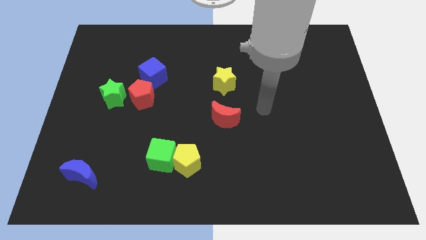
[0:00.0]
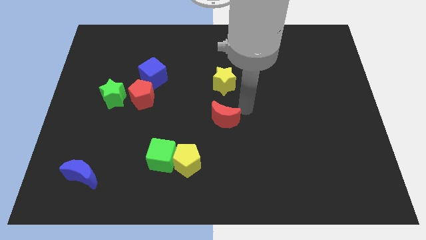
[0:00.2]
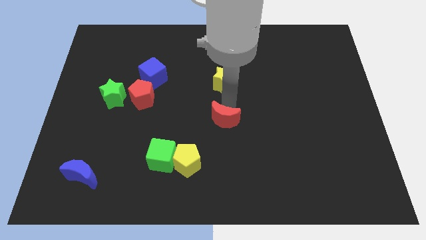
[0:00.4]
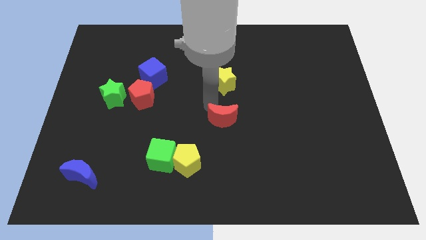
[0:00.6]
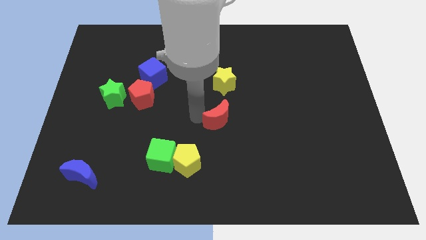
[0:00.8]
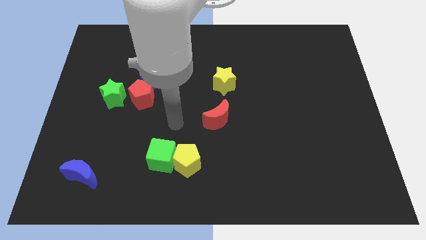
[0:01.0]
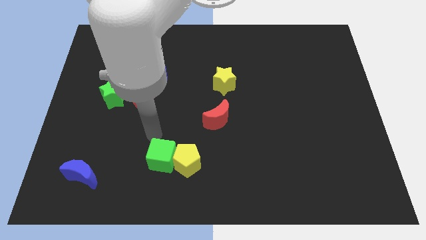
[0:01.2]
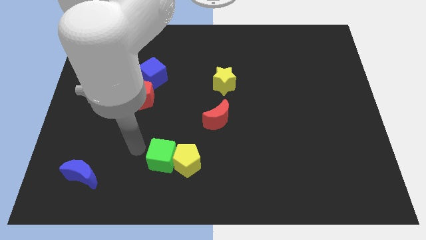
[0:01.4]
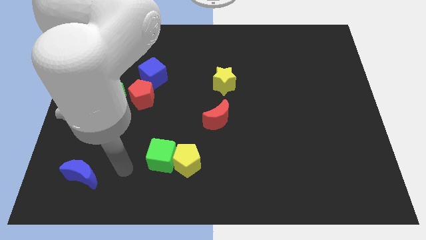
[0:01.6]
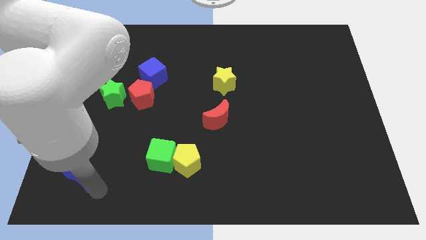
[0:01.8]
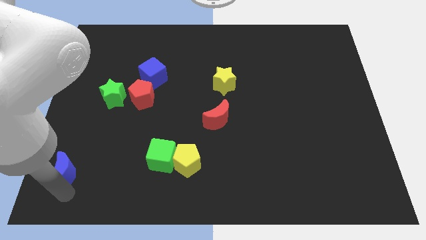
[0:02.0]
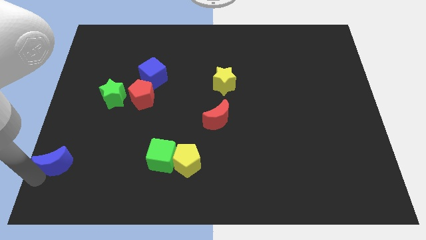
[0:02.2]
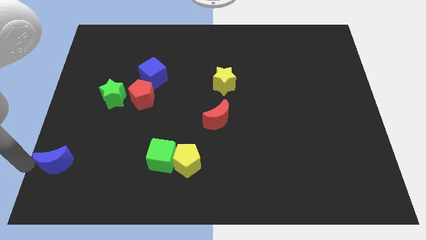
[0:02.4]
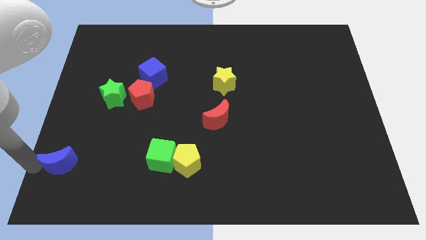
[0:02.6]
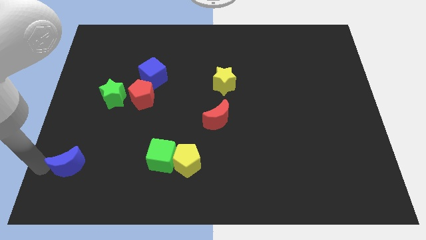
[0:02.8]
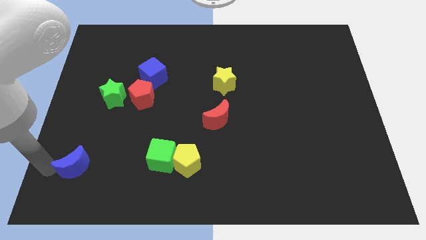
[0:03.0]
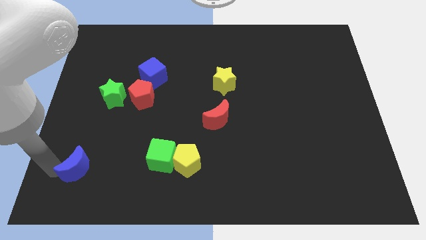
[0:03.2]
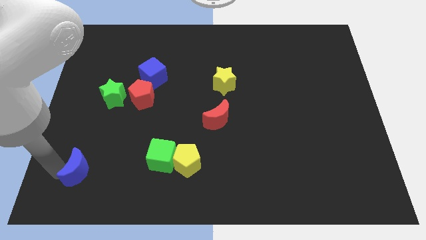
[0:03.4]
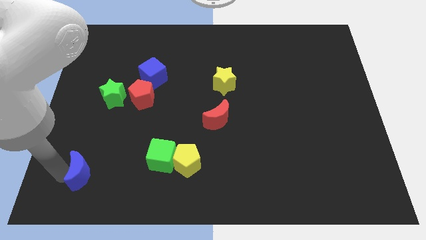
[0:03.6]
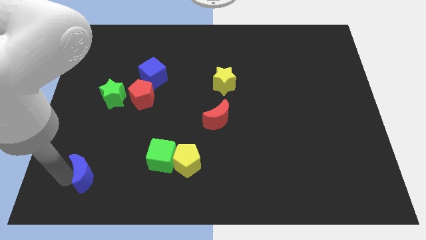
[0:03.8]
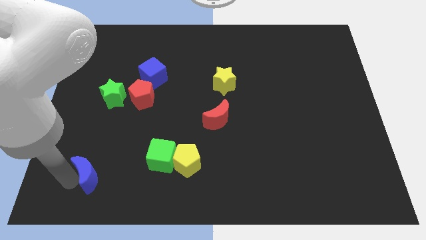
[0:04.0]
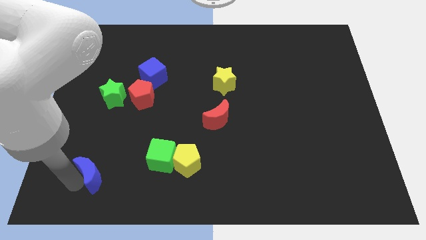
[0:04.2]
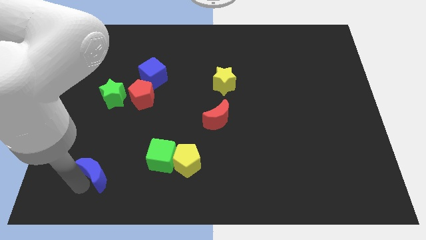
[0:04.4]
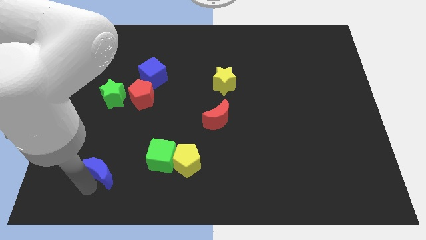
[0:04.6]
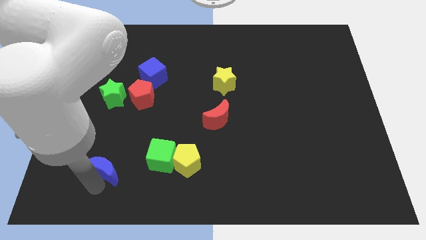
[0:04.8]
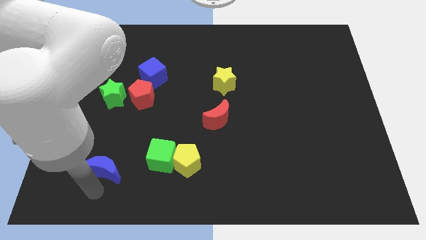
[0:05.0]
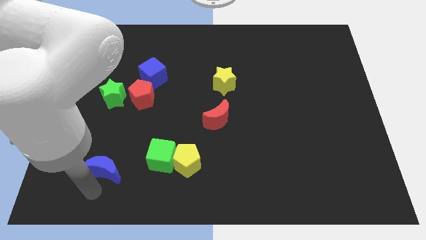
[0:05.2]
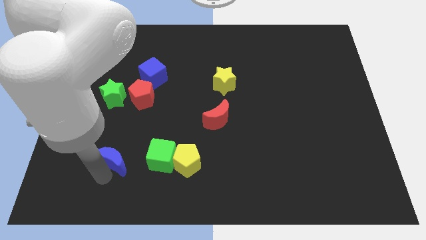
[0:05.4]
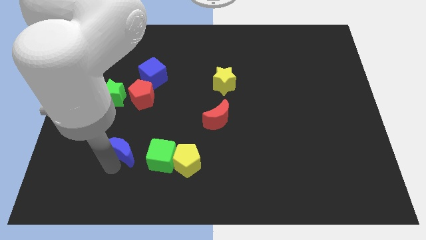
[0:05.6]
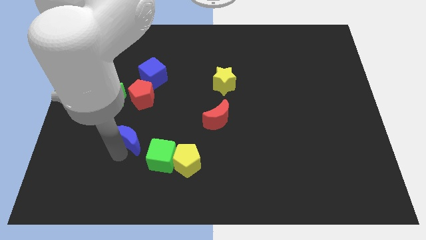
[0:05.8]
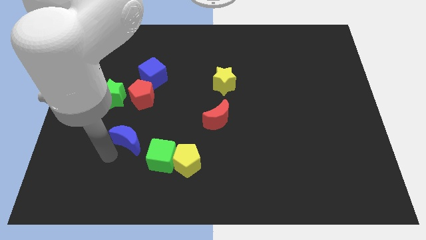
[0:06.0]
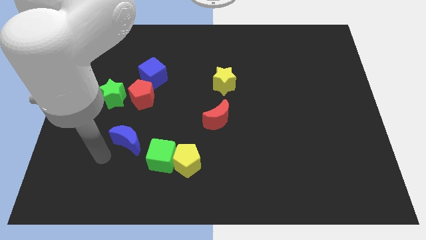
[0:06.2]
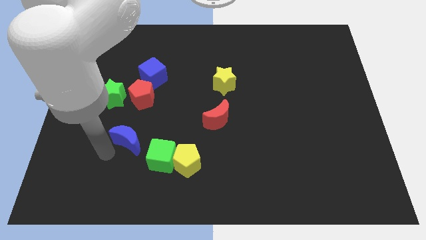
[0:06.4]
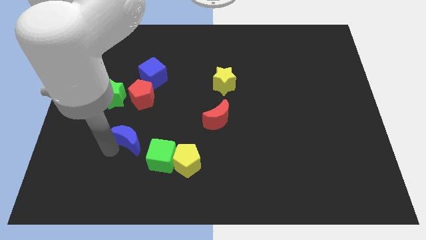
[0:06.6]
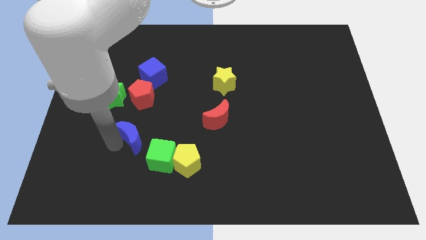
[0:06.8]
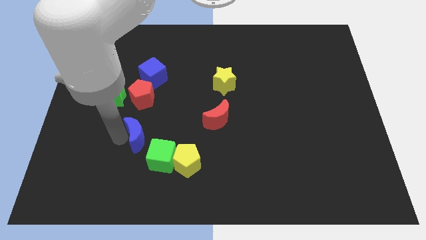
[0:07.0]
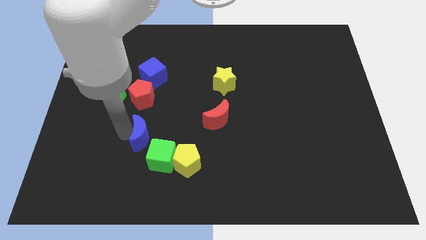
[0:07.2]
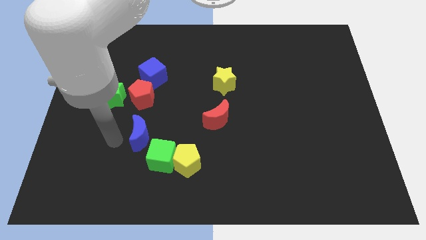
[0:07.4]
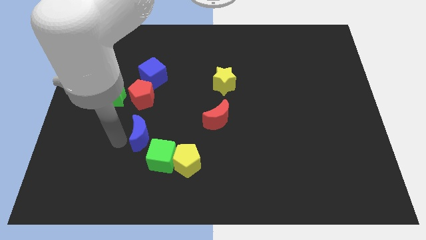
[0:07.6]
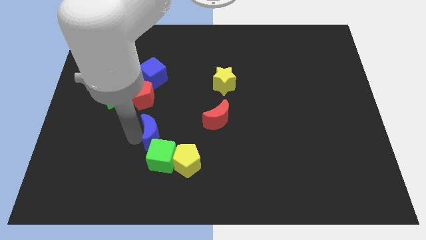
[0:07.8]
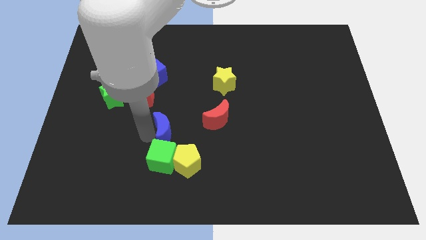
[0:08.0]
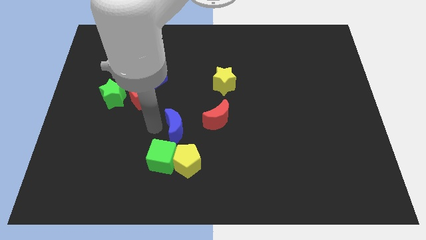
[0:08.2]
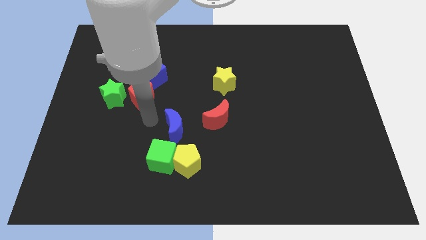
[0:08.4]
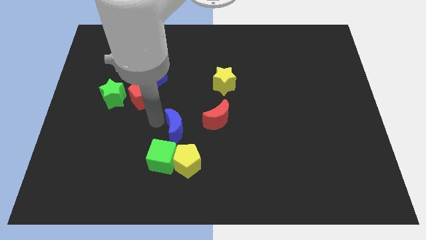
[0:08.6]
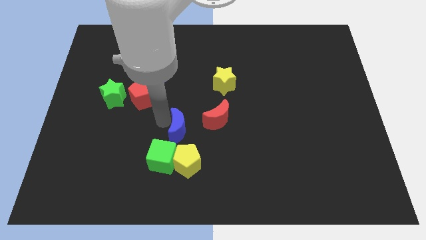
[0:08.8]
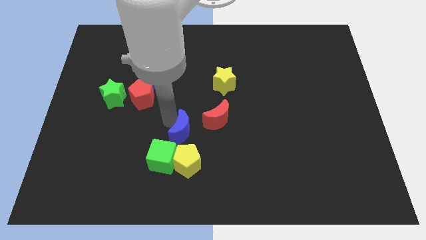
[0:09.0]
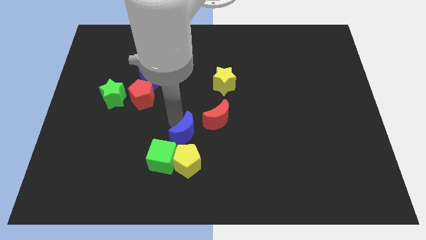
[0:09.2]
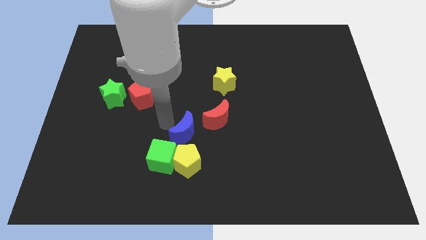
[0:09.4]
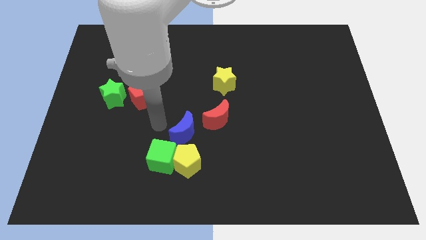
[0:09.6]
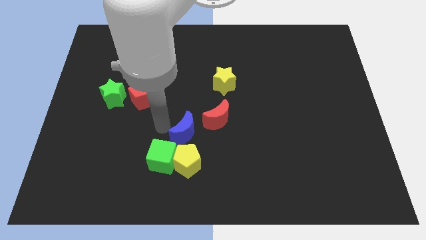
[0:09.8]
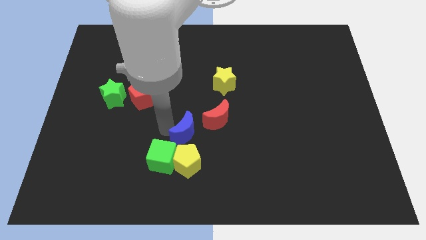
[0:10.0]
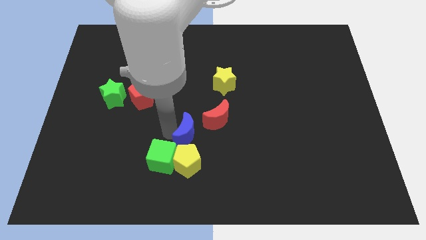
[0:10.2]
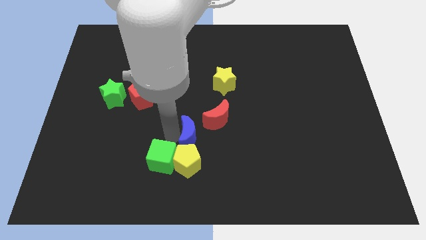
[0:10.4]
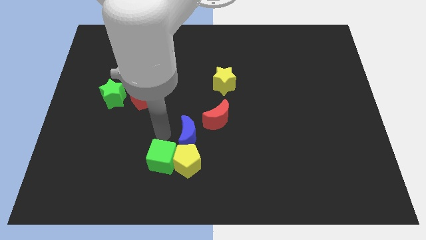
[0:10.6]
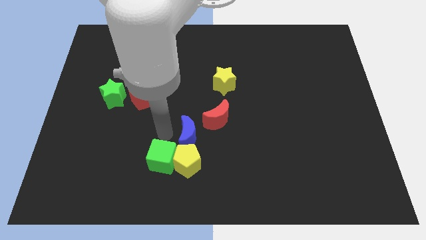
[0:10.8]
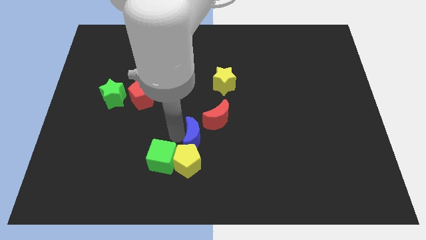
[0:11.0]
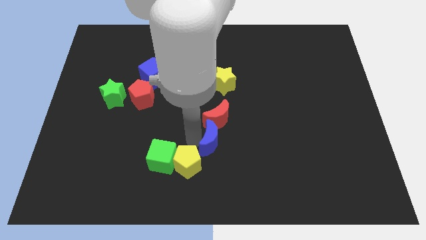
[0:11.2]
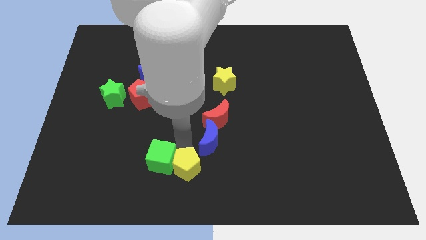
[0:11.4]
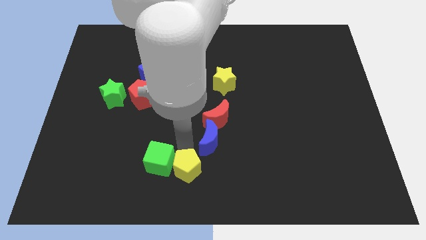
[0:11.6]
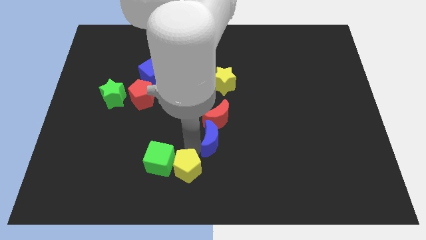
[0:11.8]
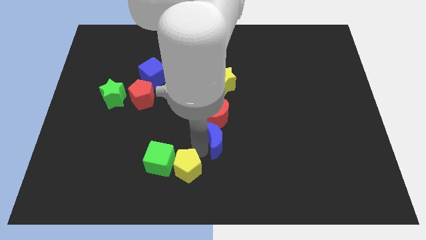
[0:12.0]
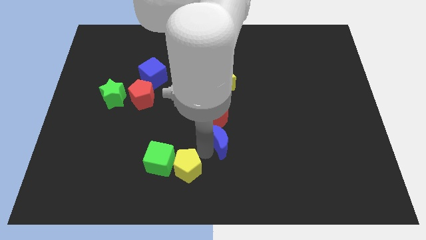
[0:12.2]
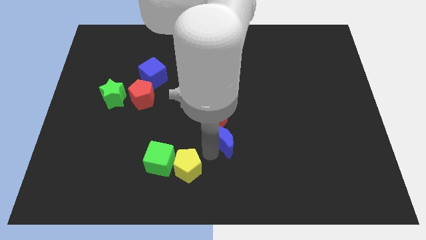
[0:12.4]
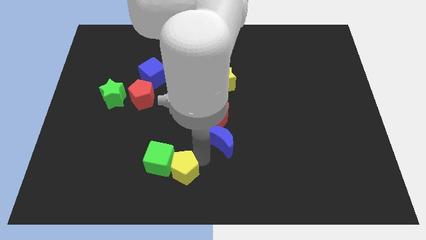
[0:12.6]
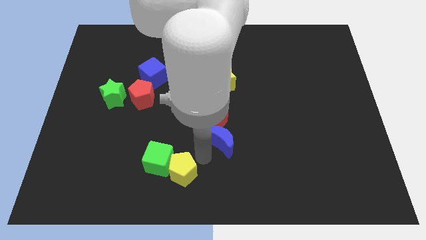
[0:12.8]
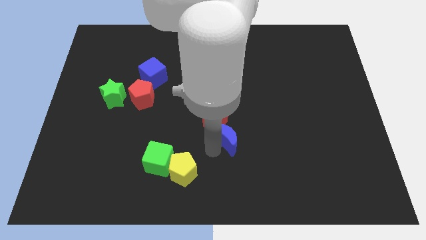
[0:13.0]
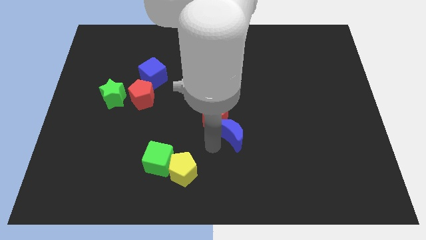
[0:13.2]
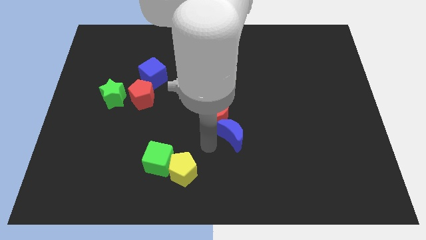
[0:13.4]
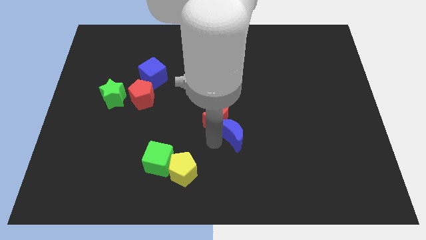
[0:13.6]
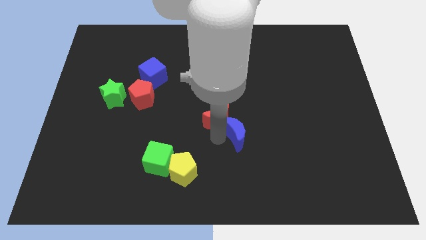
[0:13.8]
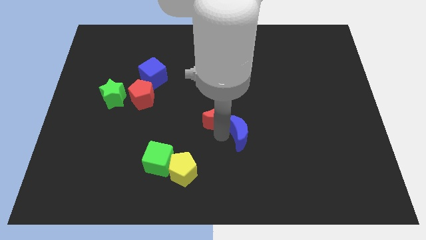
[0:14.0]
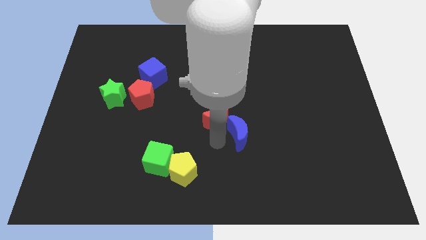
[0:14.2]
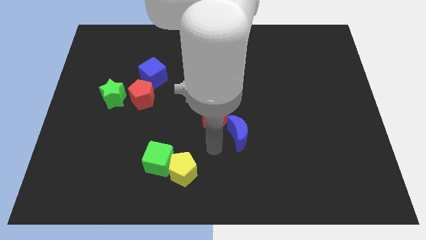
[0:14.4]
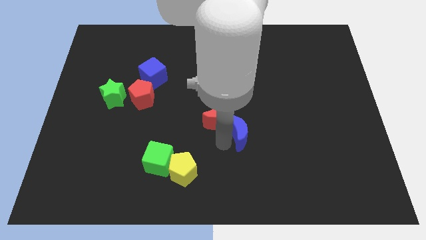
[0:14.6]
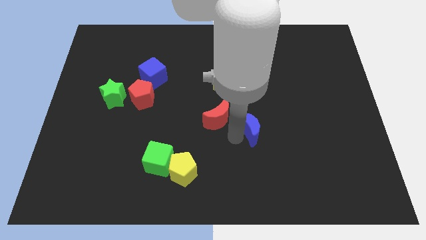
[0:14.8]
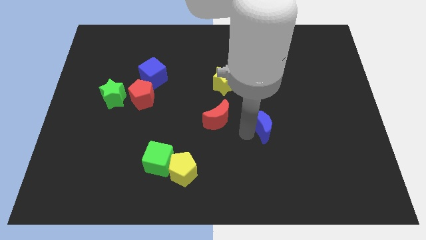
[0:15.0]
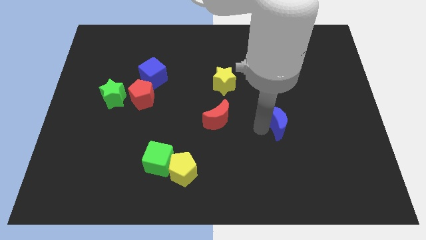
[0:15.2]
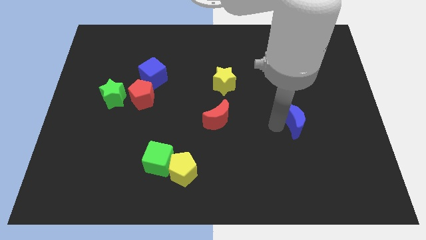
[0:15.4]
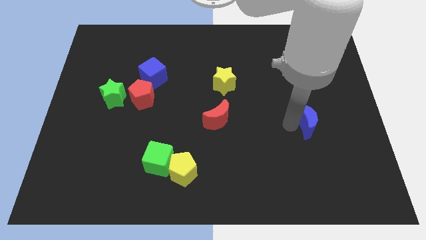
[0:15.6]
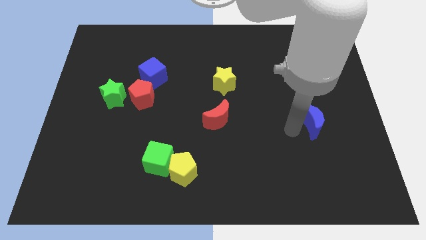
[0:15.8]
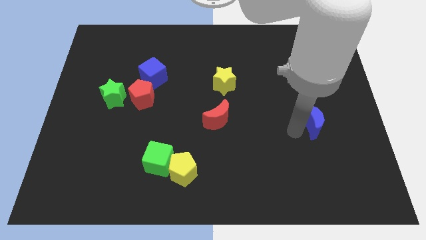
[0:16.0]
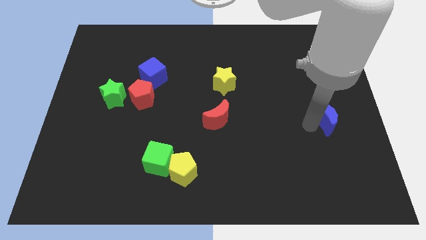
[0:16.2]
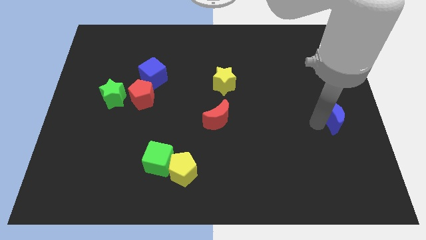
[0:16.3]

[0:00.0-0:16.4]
put the blue moon to the center right
